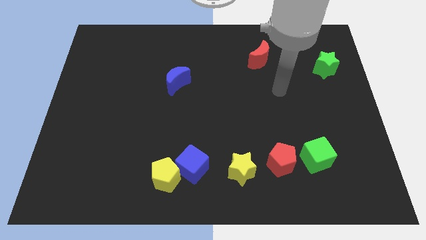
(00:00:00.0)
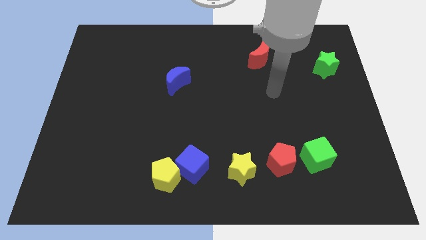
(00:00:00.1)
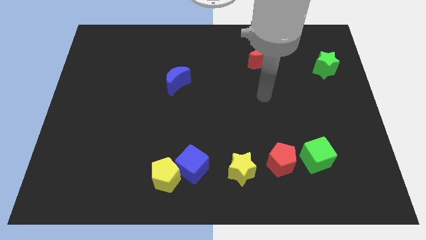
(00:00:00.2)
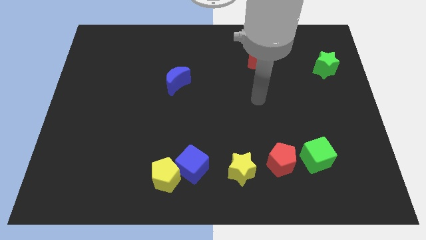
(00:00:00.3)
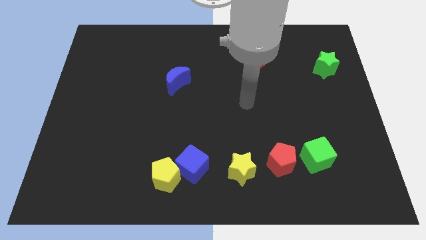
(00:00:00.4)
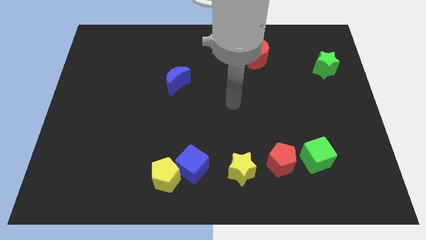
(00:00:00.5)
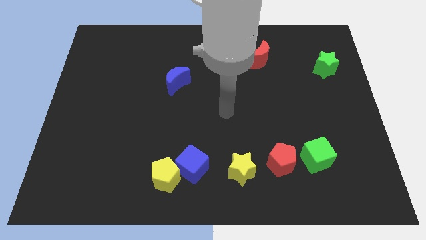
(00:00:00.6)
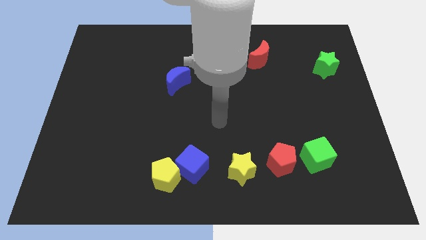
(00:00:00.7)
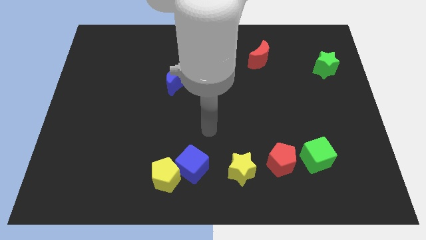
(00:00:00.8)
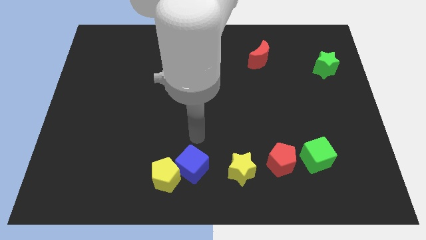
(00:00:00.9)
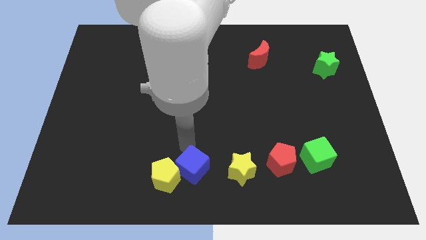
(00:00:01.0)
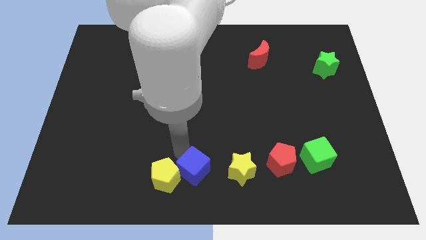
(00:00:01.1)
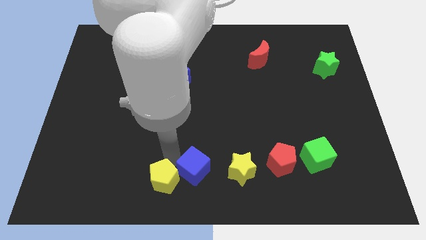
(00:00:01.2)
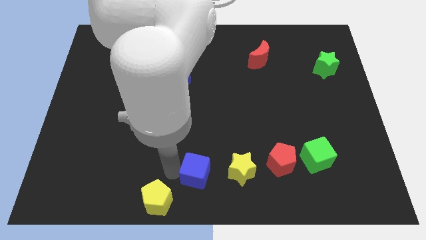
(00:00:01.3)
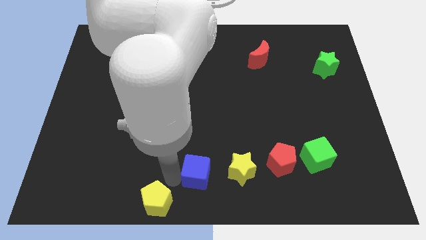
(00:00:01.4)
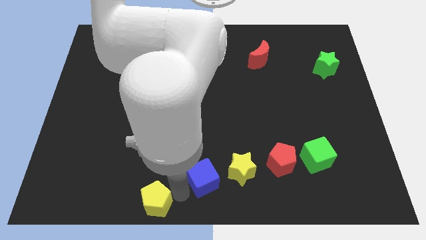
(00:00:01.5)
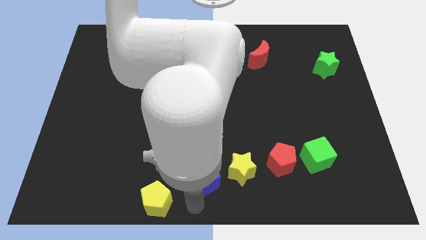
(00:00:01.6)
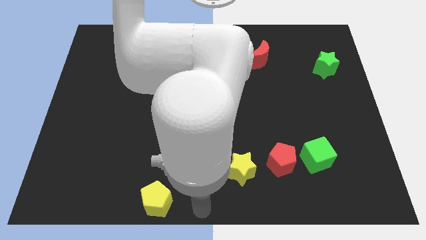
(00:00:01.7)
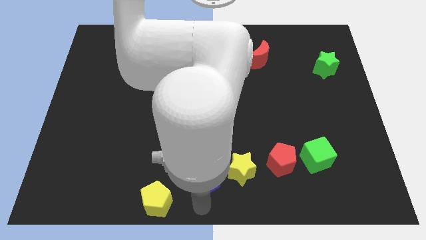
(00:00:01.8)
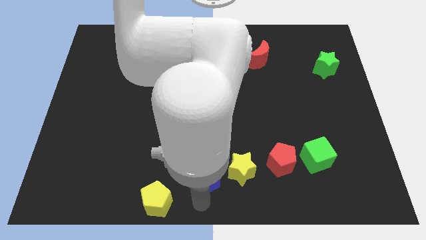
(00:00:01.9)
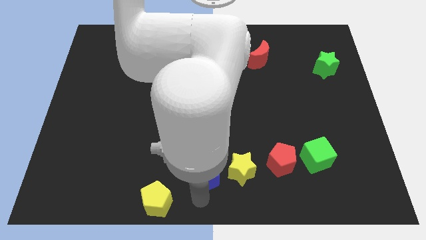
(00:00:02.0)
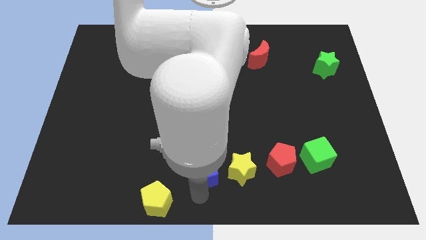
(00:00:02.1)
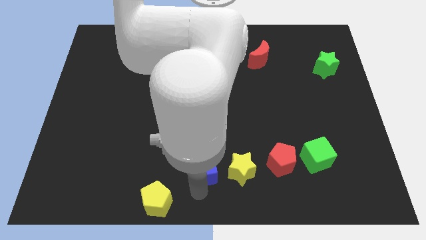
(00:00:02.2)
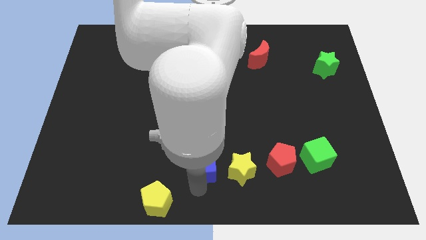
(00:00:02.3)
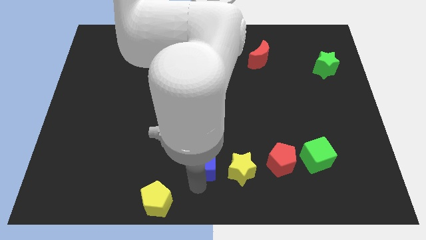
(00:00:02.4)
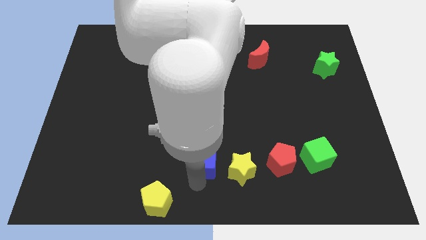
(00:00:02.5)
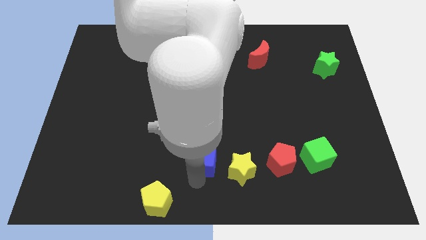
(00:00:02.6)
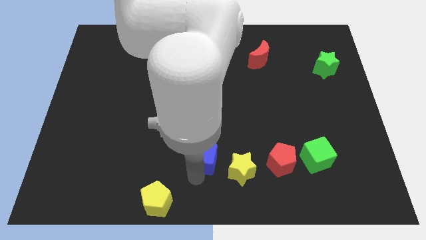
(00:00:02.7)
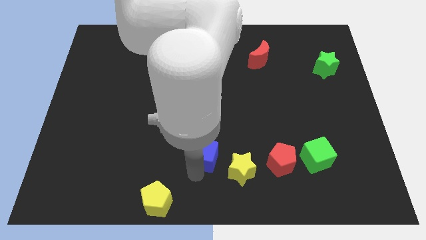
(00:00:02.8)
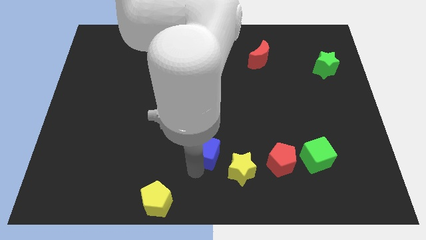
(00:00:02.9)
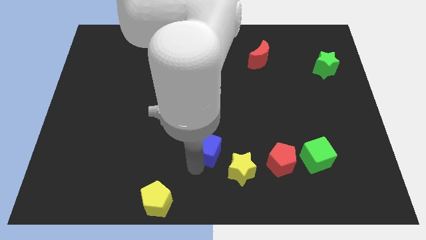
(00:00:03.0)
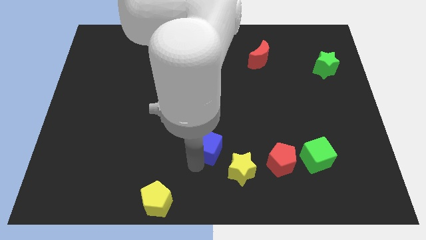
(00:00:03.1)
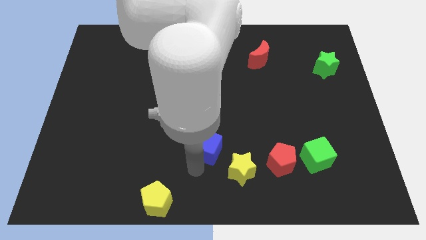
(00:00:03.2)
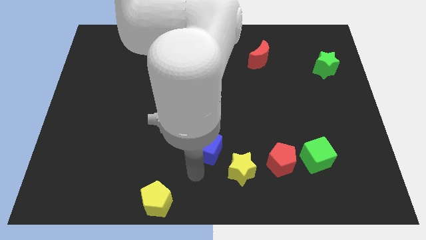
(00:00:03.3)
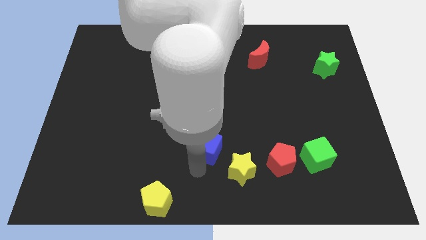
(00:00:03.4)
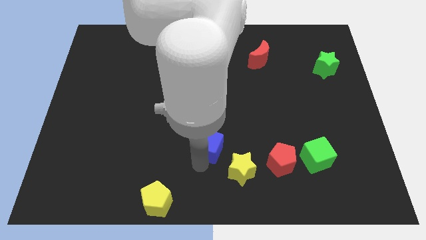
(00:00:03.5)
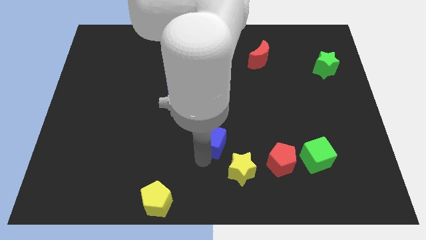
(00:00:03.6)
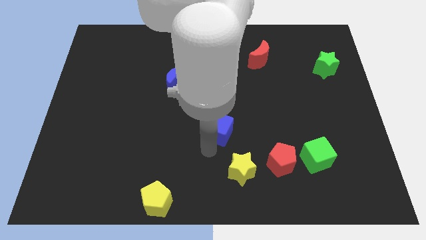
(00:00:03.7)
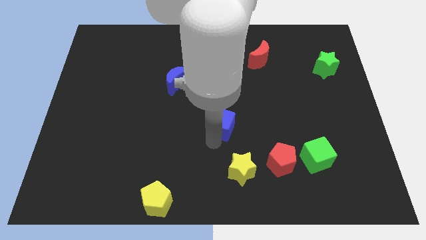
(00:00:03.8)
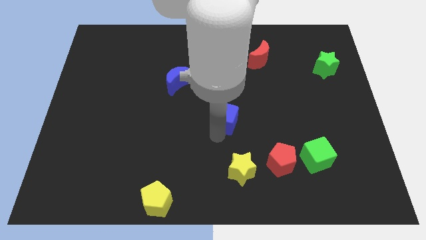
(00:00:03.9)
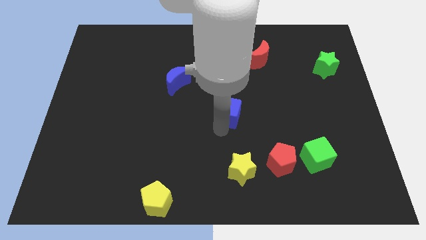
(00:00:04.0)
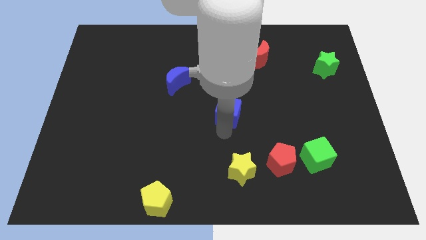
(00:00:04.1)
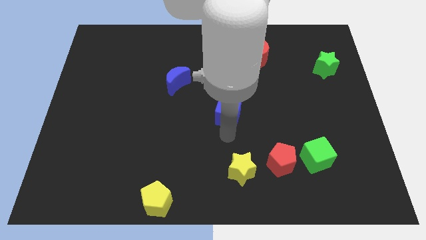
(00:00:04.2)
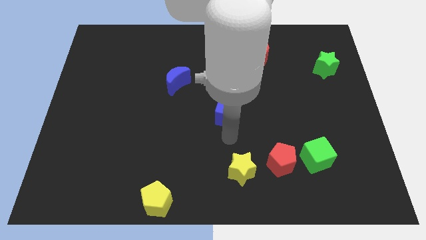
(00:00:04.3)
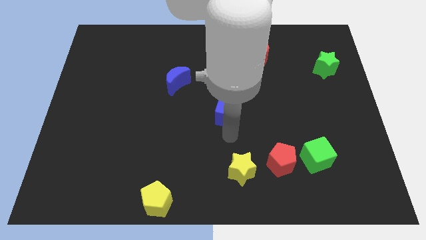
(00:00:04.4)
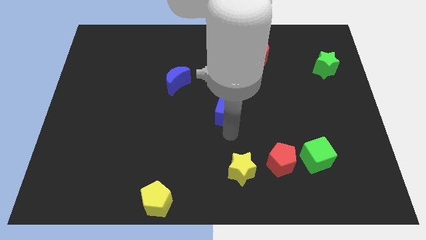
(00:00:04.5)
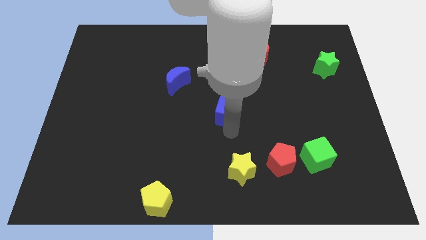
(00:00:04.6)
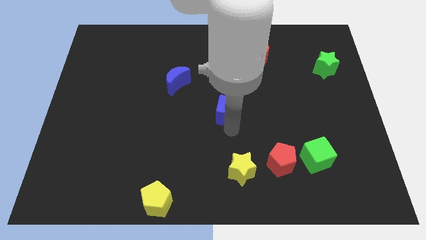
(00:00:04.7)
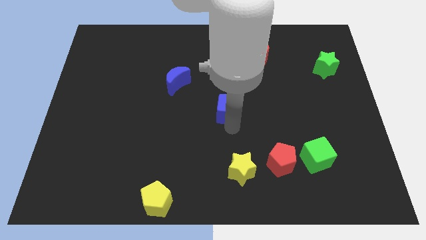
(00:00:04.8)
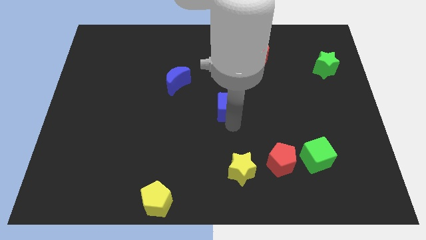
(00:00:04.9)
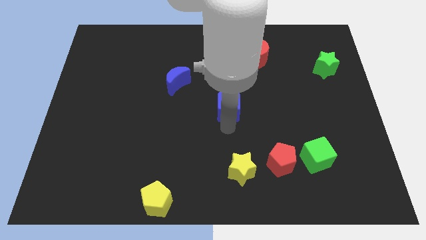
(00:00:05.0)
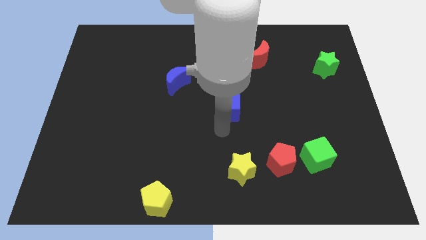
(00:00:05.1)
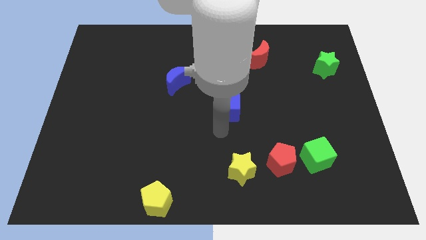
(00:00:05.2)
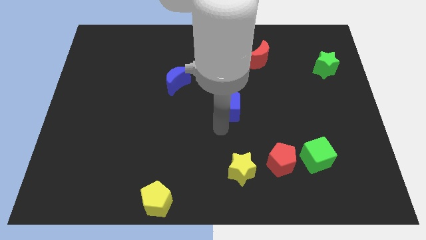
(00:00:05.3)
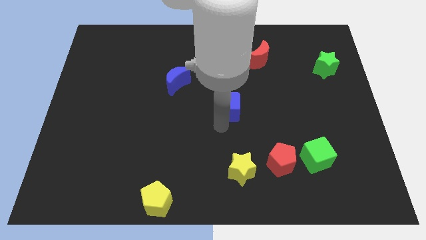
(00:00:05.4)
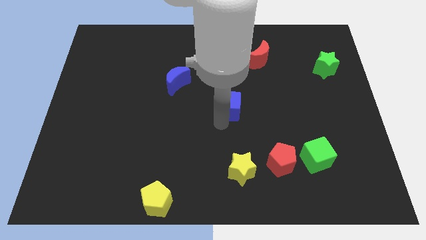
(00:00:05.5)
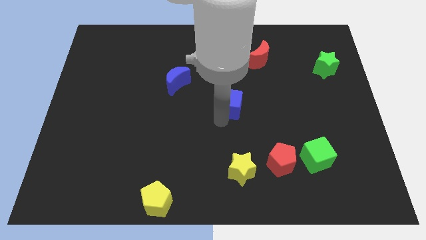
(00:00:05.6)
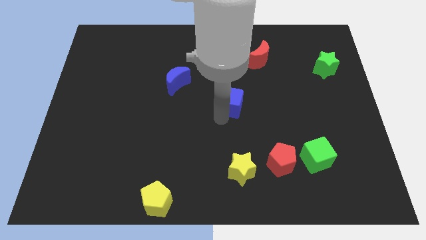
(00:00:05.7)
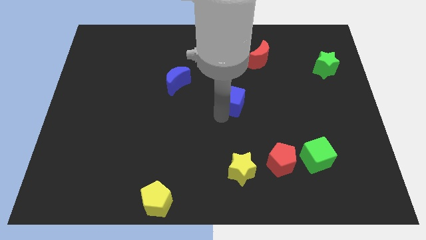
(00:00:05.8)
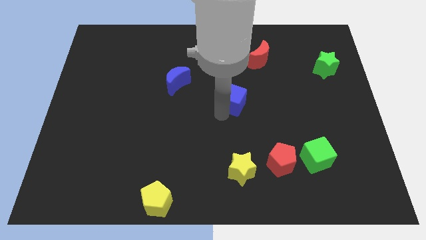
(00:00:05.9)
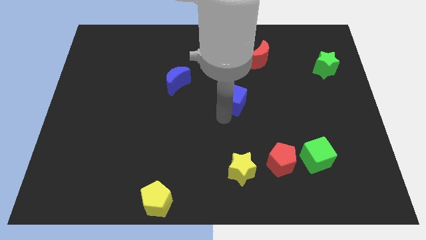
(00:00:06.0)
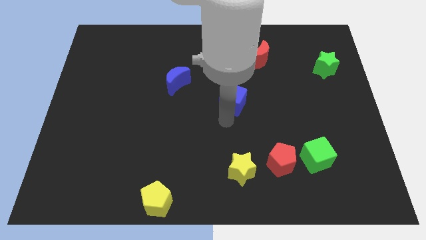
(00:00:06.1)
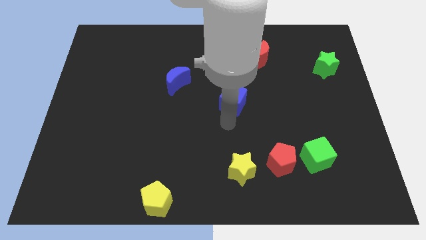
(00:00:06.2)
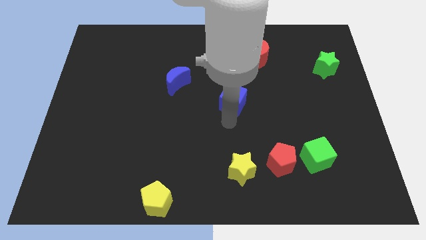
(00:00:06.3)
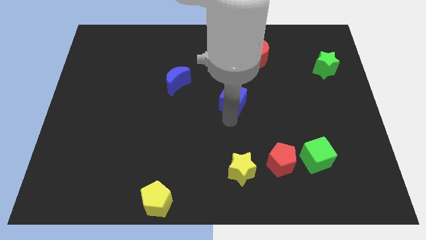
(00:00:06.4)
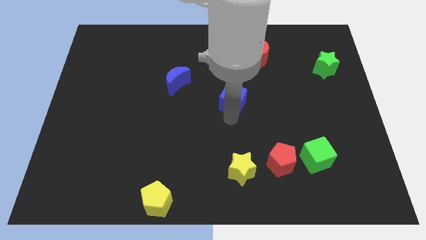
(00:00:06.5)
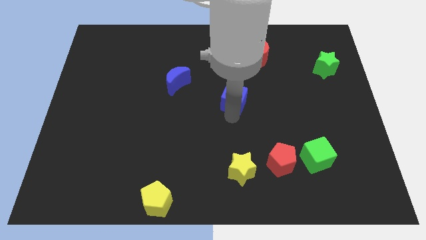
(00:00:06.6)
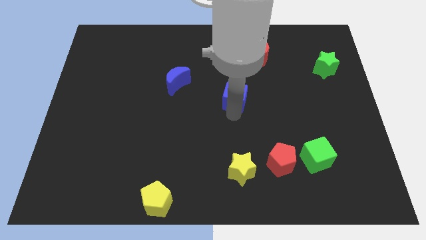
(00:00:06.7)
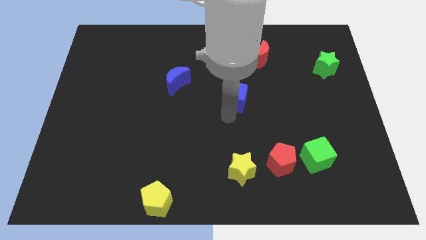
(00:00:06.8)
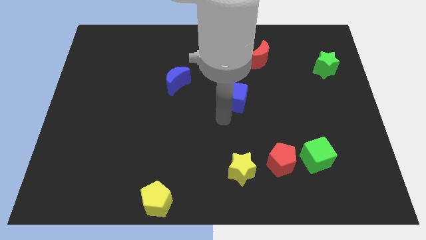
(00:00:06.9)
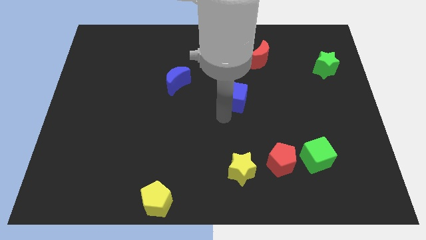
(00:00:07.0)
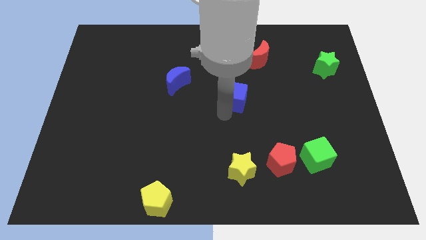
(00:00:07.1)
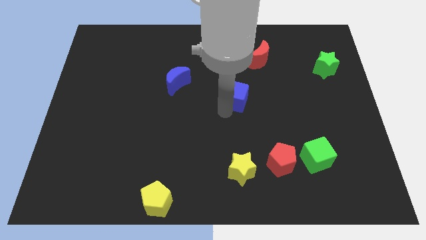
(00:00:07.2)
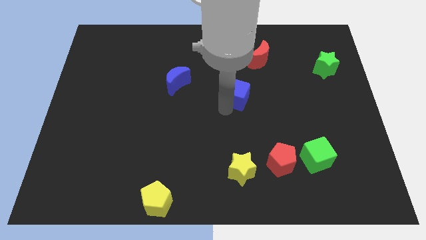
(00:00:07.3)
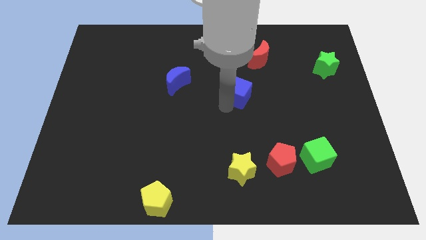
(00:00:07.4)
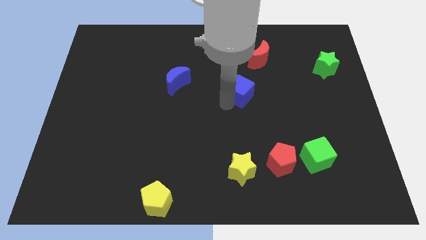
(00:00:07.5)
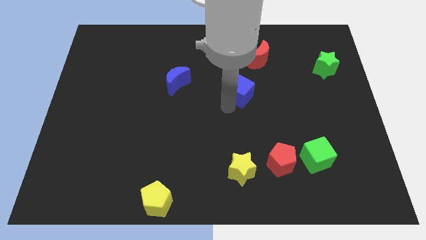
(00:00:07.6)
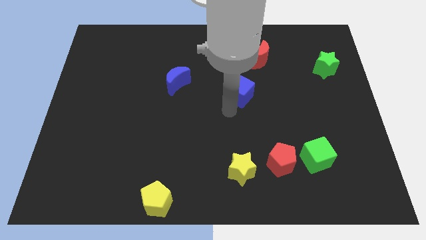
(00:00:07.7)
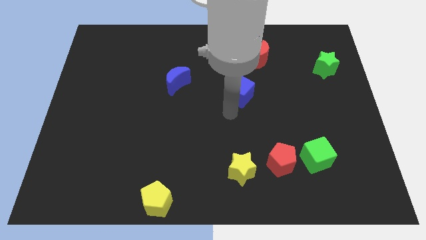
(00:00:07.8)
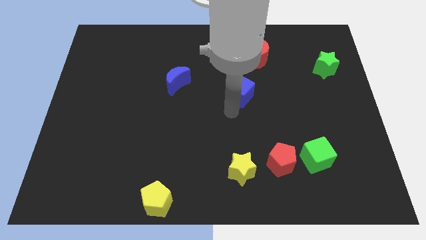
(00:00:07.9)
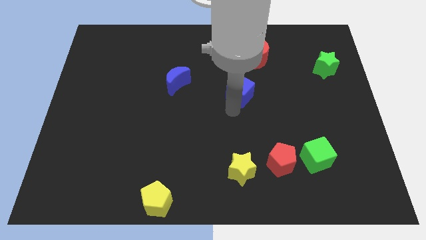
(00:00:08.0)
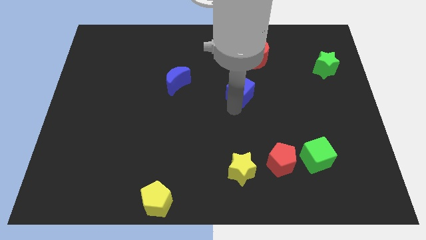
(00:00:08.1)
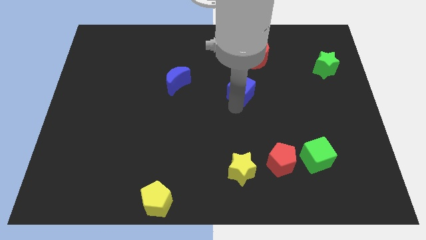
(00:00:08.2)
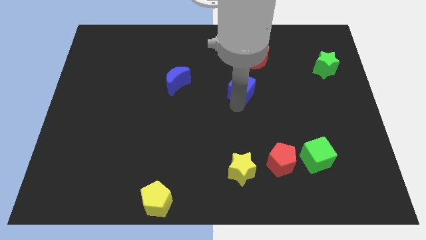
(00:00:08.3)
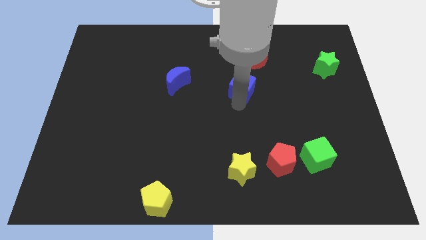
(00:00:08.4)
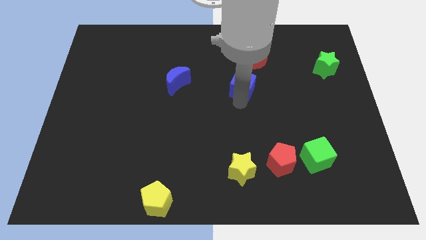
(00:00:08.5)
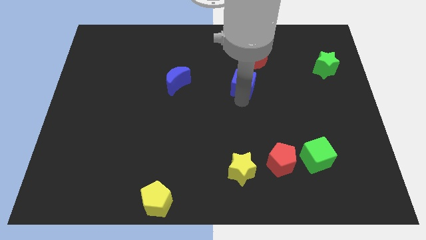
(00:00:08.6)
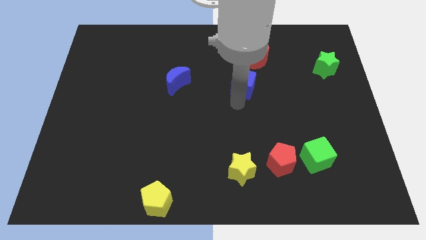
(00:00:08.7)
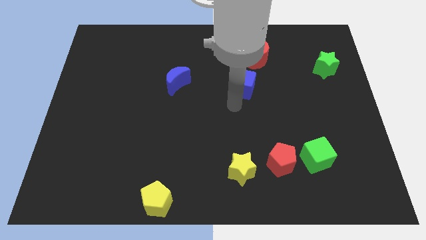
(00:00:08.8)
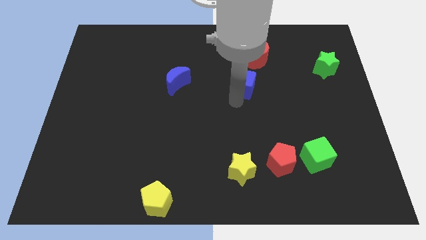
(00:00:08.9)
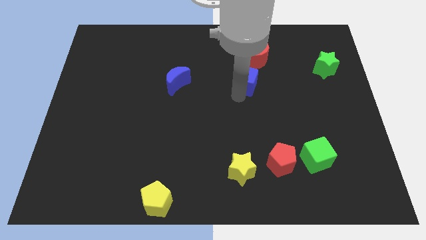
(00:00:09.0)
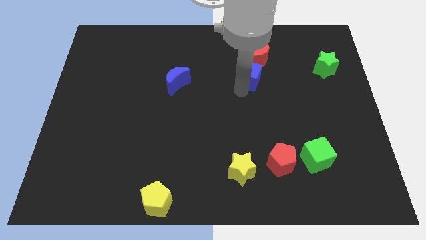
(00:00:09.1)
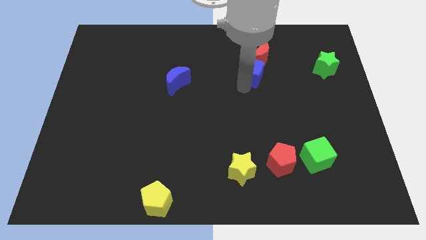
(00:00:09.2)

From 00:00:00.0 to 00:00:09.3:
push the blue cube close to the red moon
